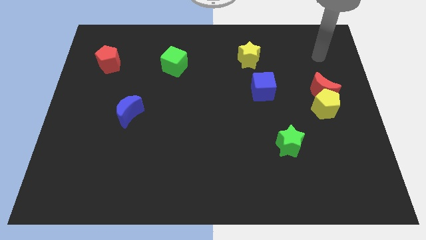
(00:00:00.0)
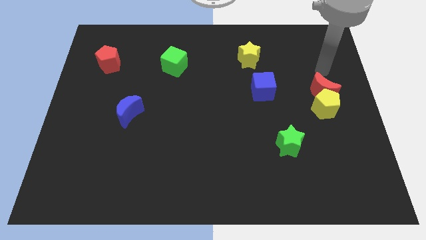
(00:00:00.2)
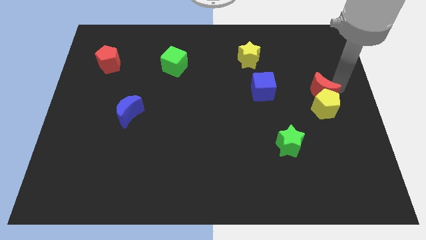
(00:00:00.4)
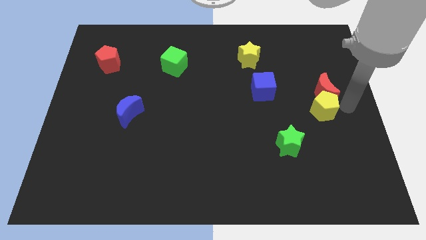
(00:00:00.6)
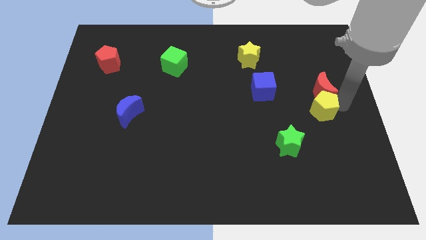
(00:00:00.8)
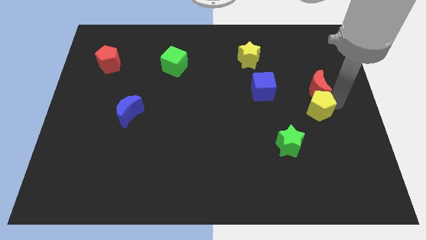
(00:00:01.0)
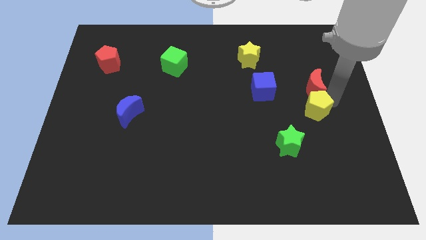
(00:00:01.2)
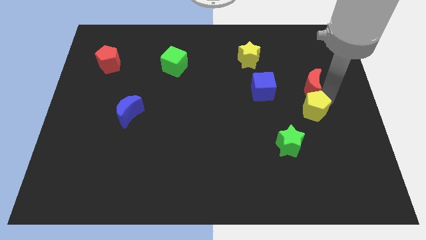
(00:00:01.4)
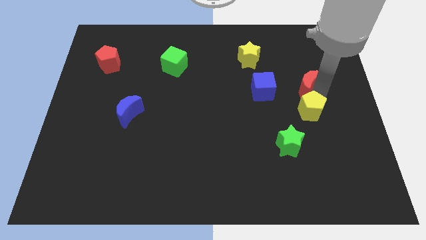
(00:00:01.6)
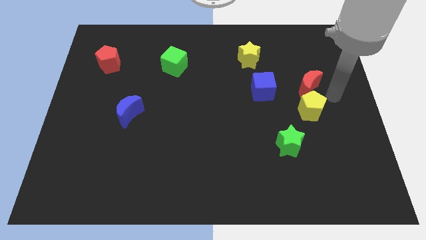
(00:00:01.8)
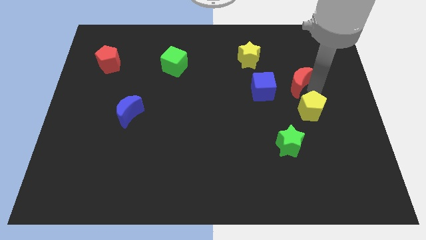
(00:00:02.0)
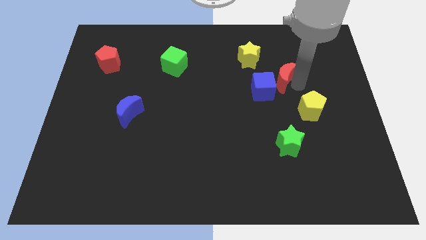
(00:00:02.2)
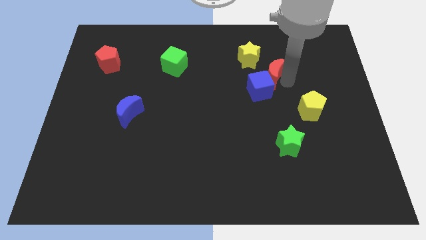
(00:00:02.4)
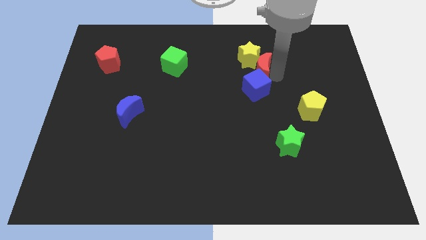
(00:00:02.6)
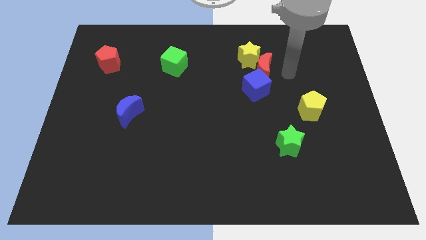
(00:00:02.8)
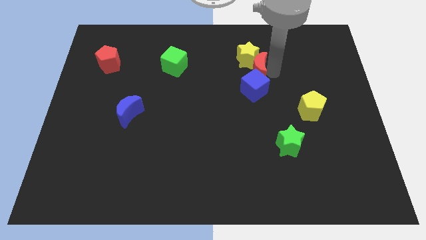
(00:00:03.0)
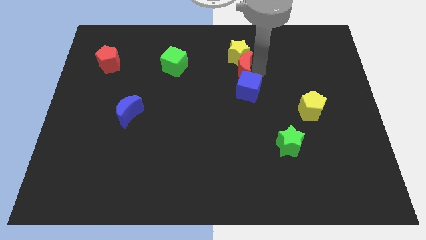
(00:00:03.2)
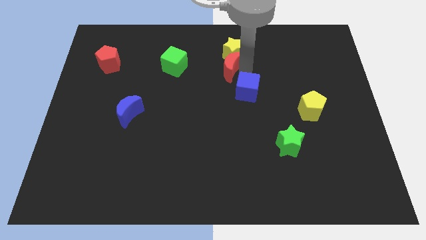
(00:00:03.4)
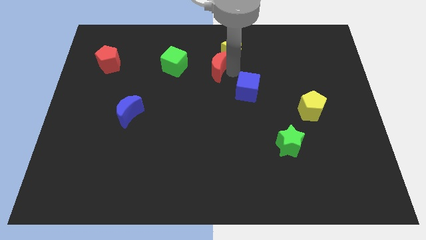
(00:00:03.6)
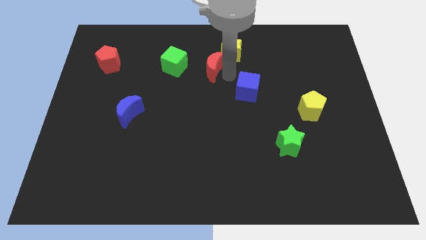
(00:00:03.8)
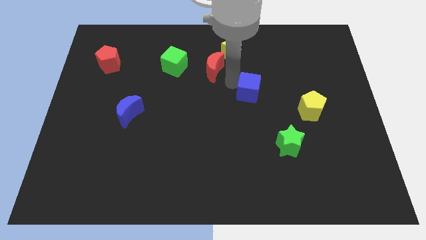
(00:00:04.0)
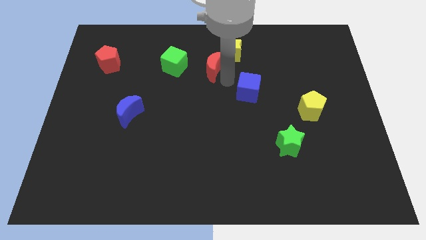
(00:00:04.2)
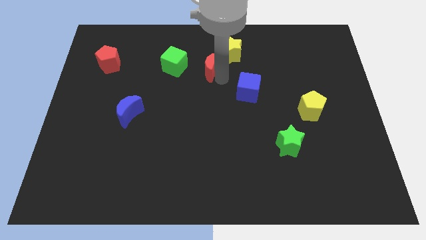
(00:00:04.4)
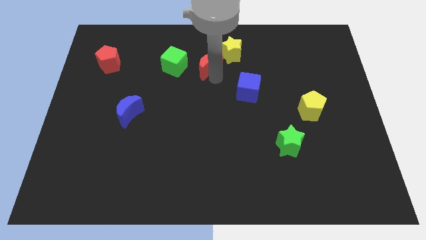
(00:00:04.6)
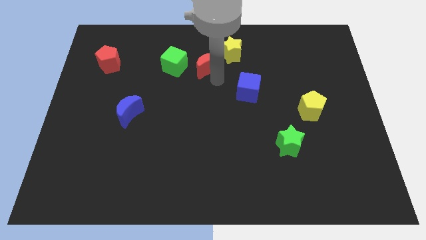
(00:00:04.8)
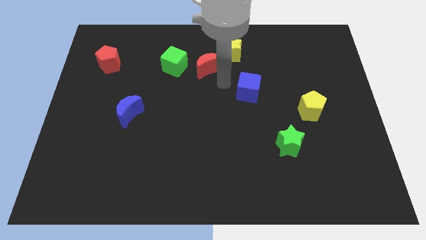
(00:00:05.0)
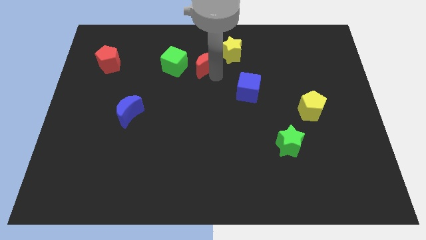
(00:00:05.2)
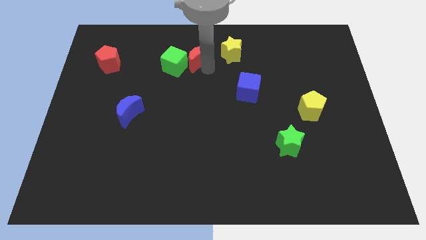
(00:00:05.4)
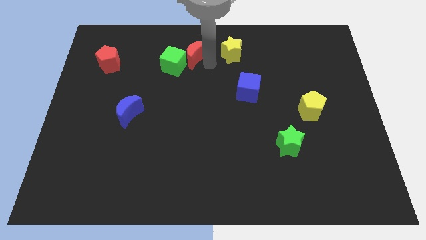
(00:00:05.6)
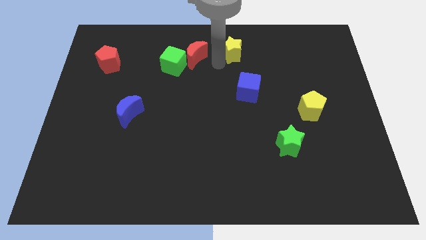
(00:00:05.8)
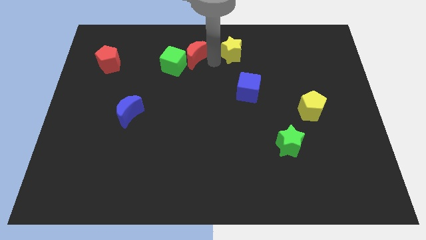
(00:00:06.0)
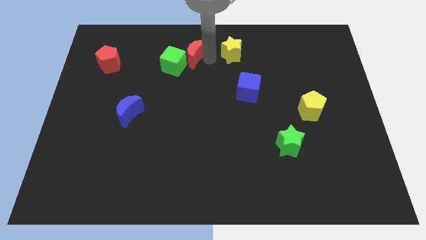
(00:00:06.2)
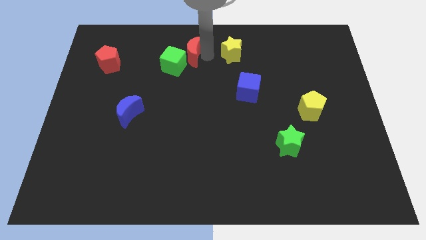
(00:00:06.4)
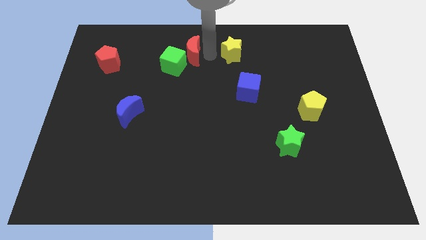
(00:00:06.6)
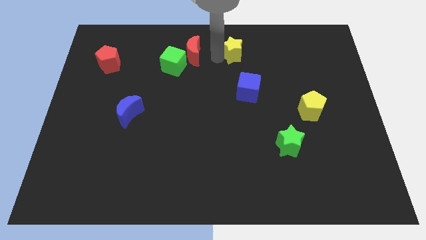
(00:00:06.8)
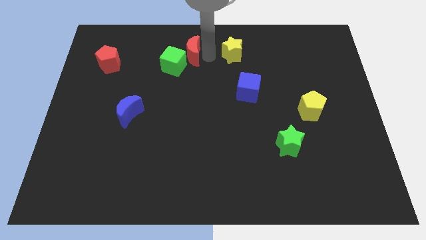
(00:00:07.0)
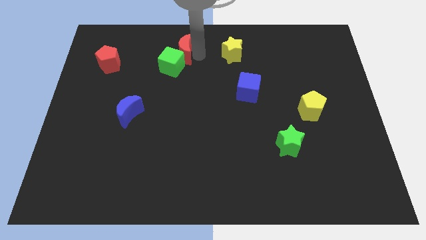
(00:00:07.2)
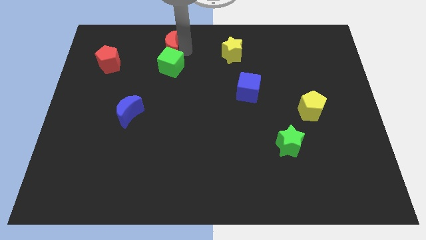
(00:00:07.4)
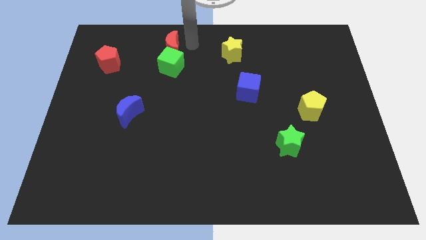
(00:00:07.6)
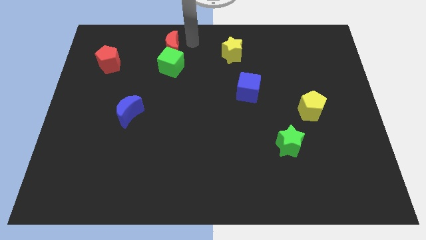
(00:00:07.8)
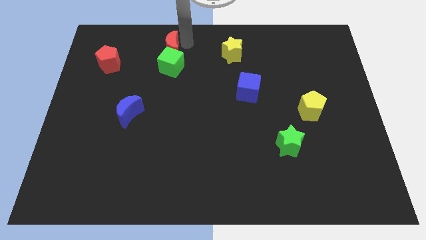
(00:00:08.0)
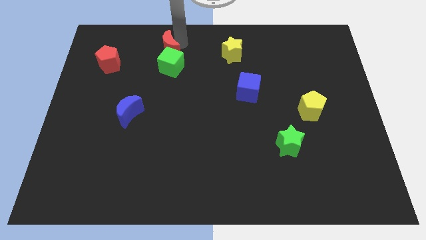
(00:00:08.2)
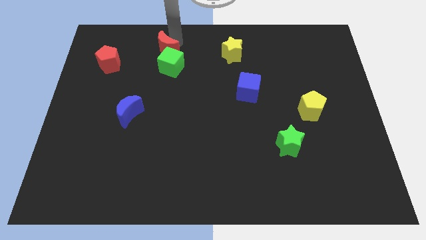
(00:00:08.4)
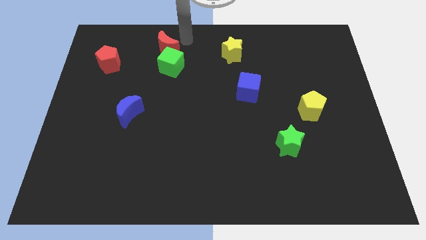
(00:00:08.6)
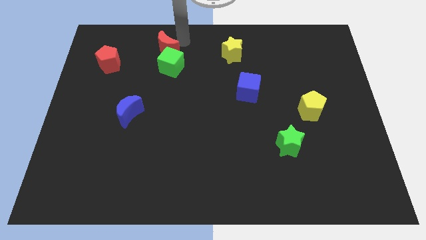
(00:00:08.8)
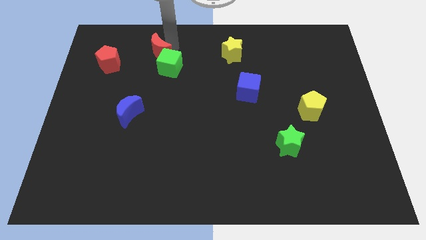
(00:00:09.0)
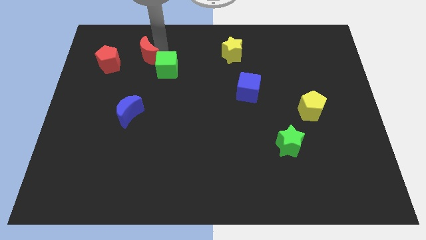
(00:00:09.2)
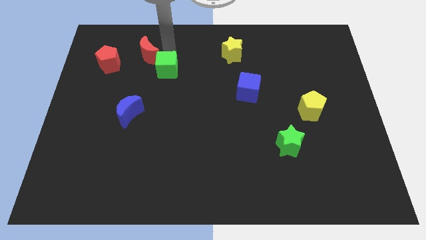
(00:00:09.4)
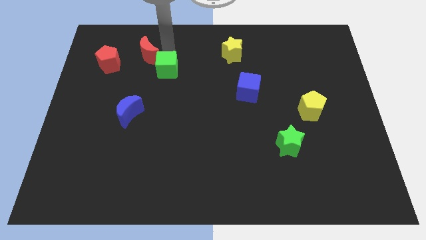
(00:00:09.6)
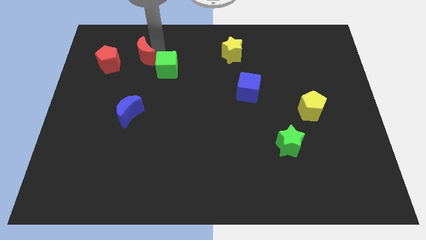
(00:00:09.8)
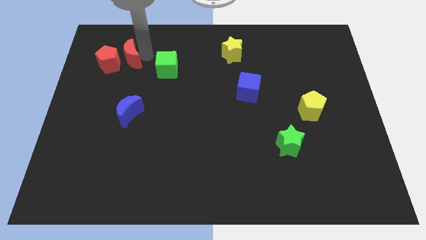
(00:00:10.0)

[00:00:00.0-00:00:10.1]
put the red moon to the red pentagon

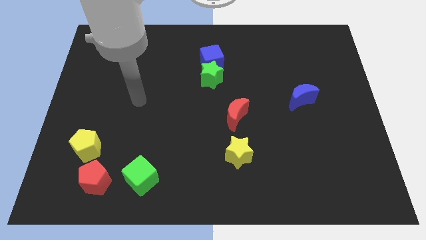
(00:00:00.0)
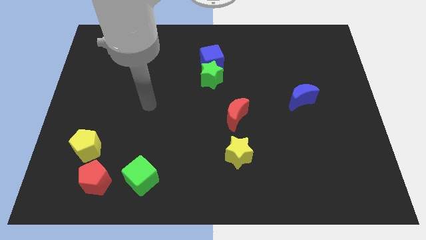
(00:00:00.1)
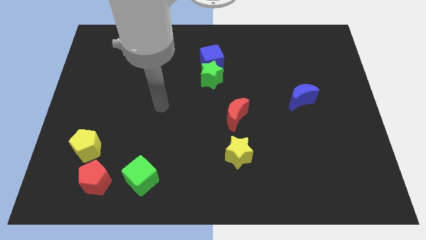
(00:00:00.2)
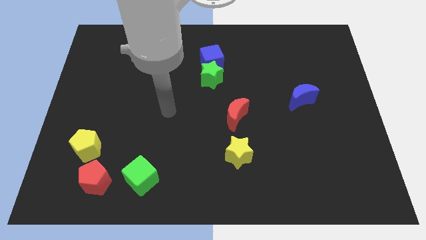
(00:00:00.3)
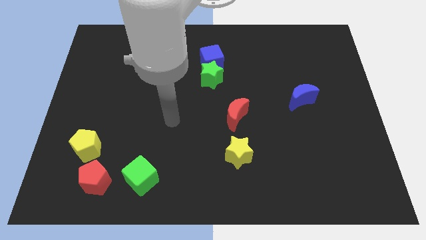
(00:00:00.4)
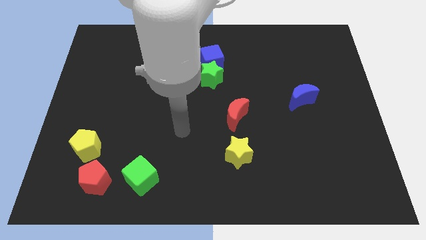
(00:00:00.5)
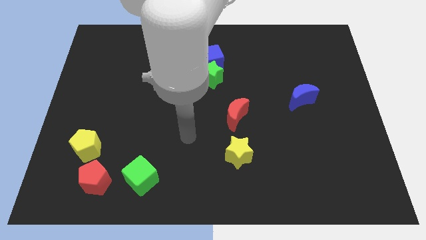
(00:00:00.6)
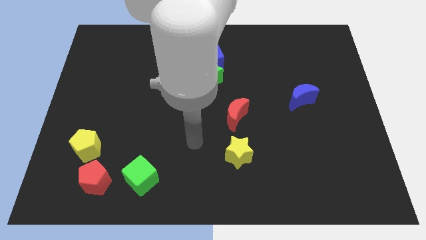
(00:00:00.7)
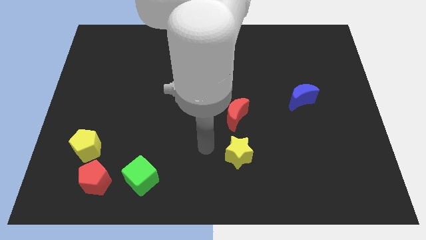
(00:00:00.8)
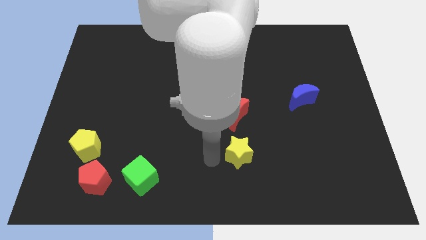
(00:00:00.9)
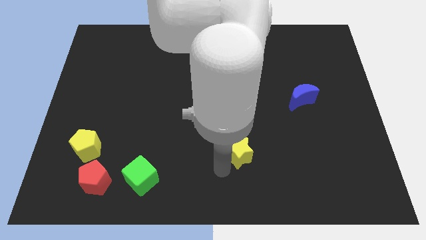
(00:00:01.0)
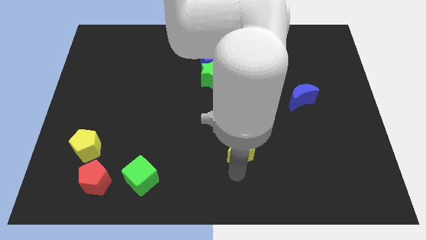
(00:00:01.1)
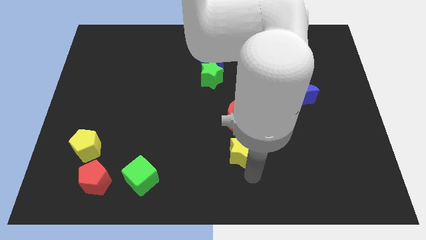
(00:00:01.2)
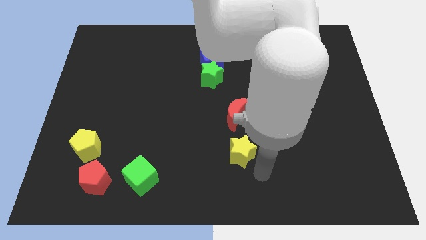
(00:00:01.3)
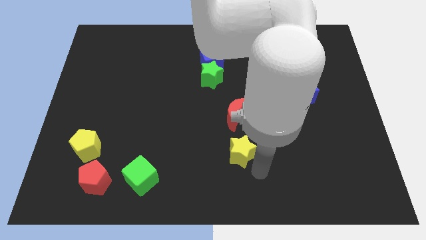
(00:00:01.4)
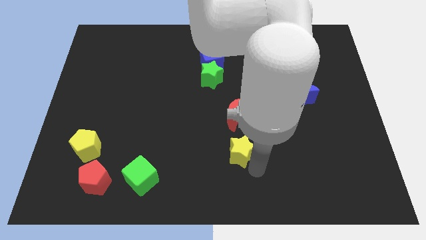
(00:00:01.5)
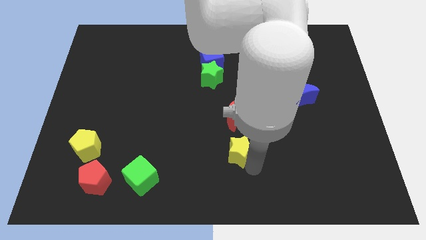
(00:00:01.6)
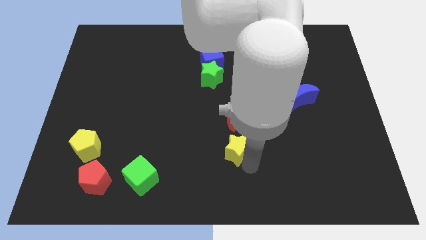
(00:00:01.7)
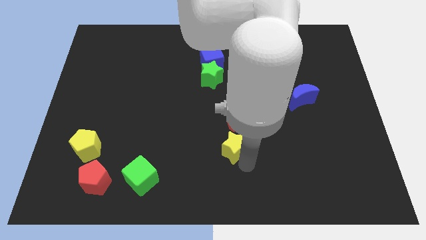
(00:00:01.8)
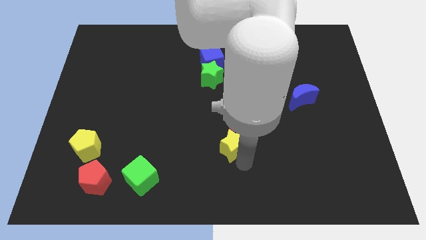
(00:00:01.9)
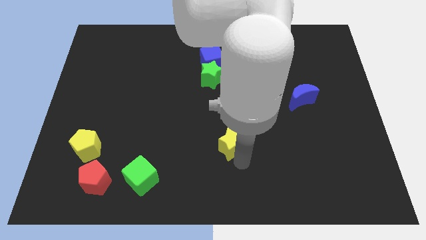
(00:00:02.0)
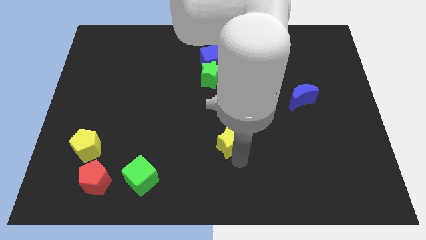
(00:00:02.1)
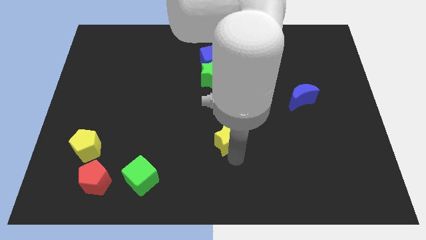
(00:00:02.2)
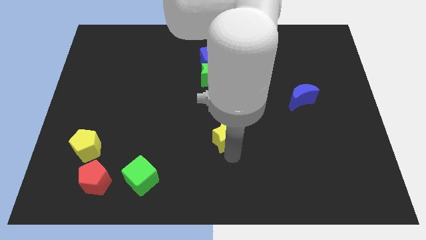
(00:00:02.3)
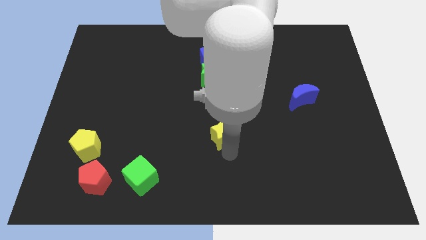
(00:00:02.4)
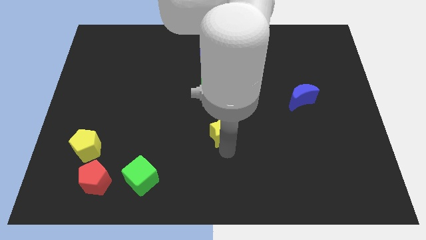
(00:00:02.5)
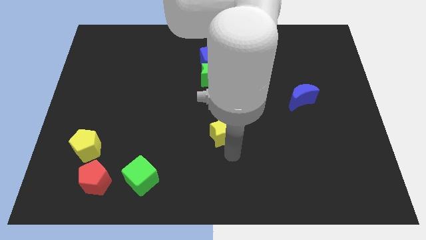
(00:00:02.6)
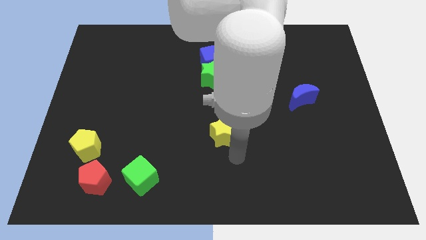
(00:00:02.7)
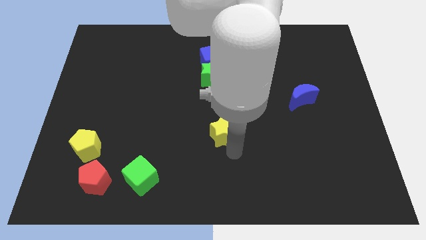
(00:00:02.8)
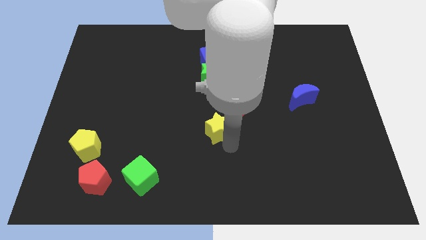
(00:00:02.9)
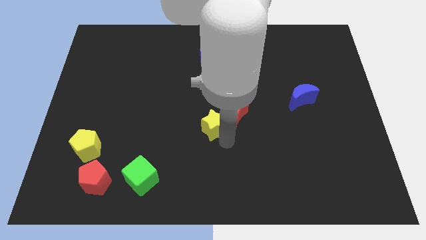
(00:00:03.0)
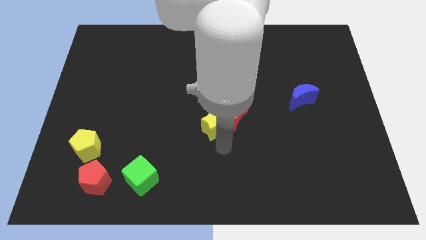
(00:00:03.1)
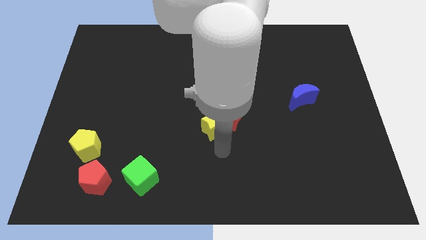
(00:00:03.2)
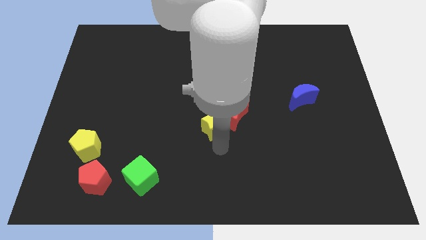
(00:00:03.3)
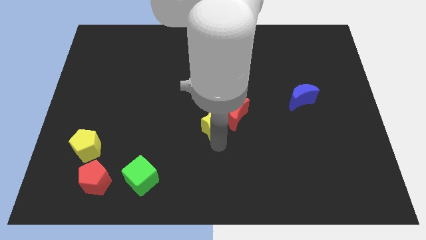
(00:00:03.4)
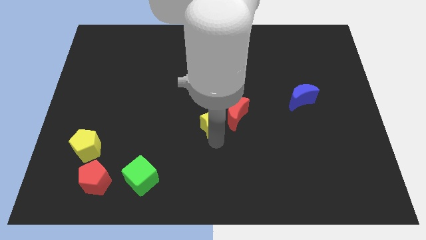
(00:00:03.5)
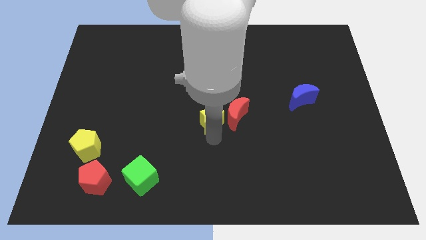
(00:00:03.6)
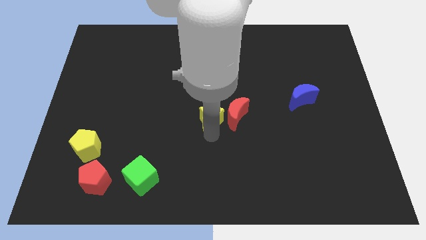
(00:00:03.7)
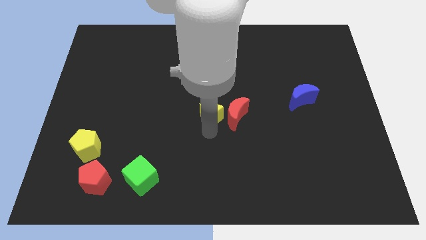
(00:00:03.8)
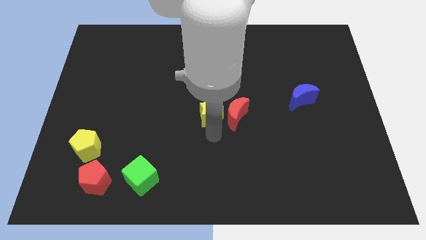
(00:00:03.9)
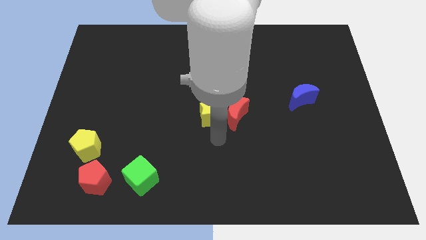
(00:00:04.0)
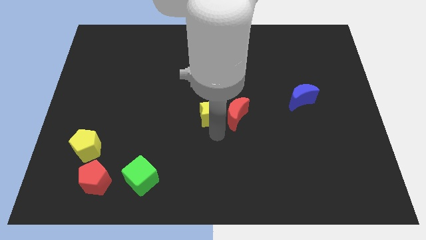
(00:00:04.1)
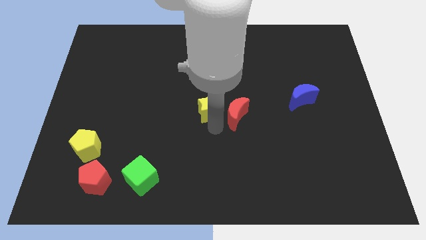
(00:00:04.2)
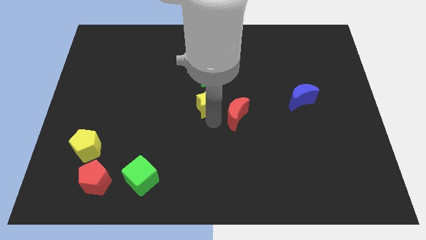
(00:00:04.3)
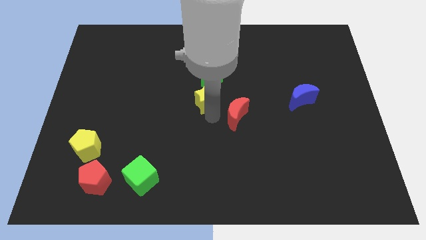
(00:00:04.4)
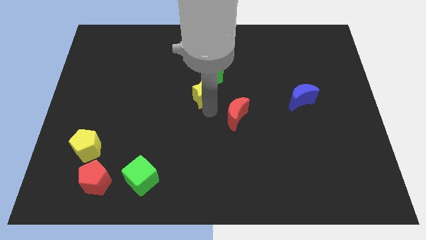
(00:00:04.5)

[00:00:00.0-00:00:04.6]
move the yellow star next to the green star
